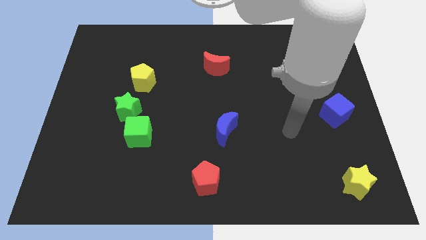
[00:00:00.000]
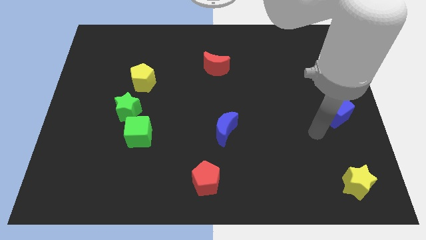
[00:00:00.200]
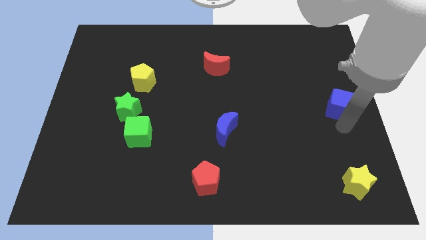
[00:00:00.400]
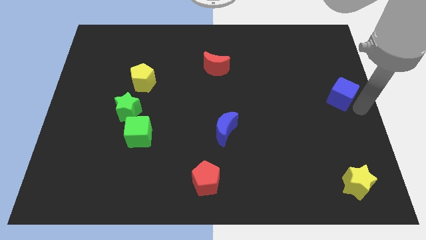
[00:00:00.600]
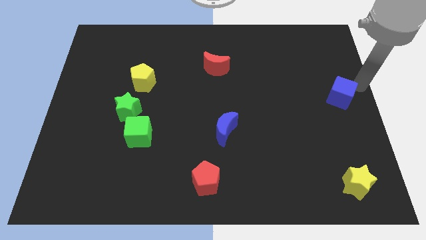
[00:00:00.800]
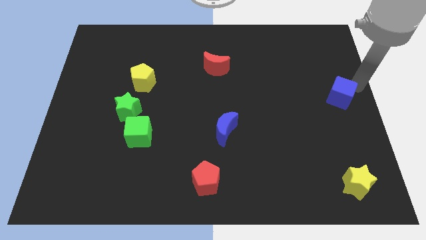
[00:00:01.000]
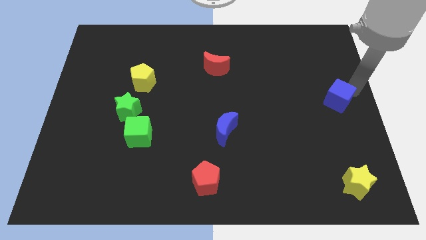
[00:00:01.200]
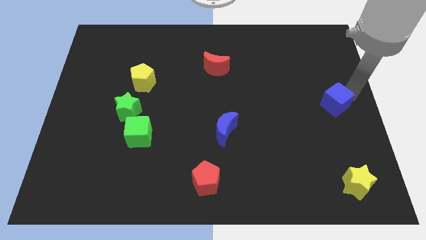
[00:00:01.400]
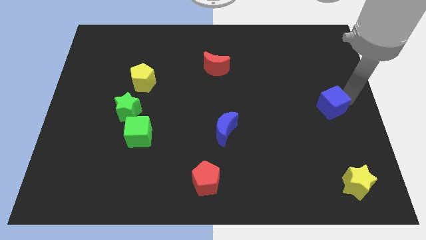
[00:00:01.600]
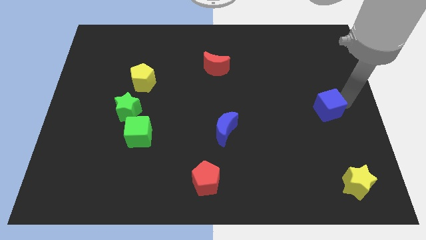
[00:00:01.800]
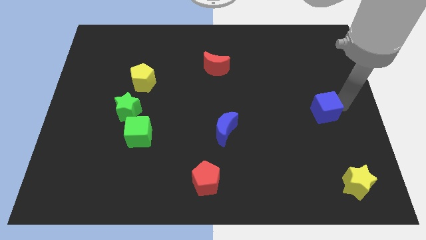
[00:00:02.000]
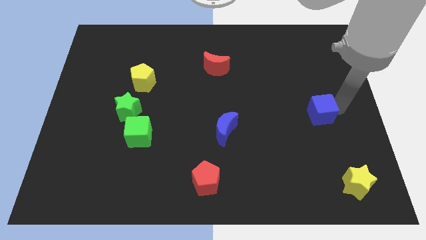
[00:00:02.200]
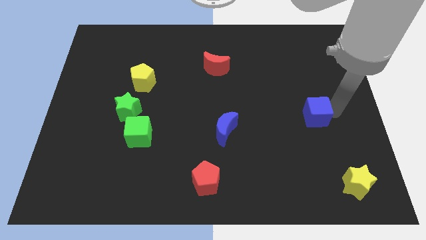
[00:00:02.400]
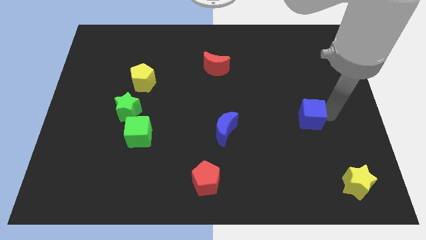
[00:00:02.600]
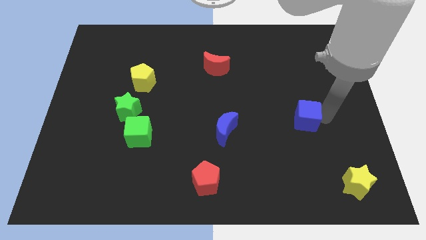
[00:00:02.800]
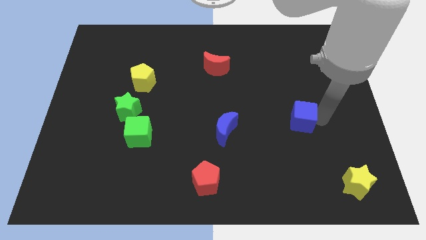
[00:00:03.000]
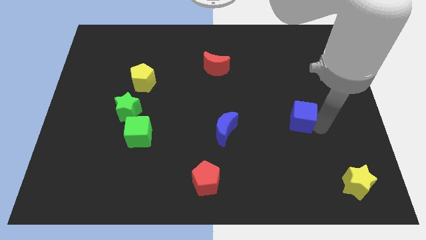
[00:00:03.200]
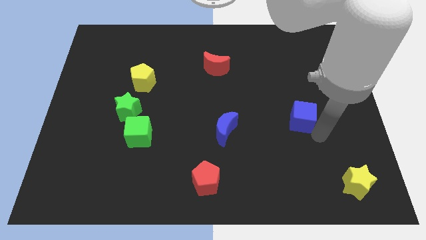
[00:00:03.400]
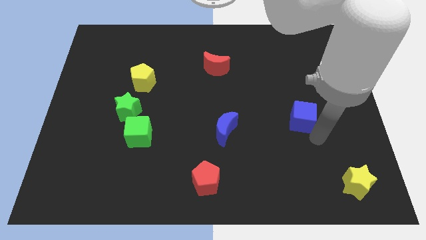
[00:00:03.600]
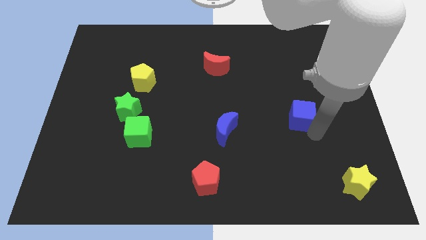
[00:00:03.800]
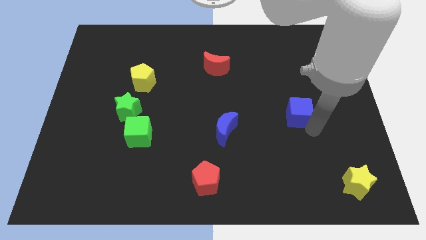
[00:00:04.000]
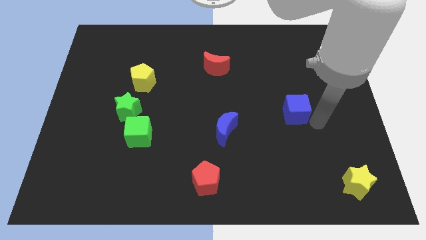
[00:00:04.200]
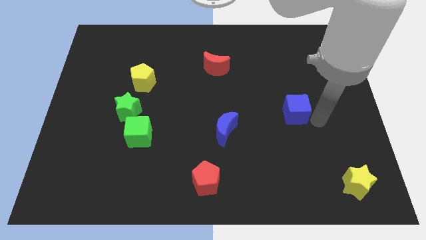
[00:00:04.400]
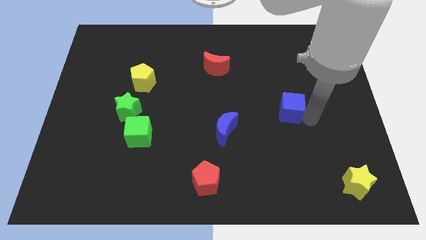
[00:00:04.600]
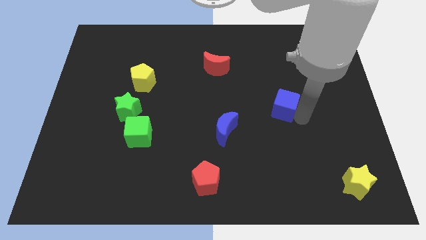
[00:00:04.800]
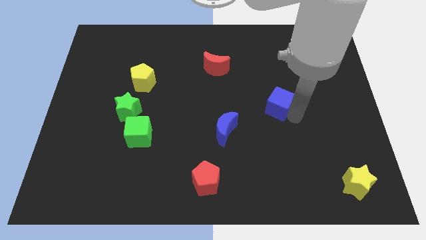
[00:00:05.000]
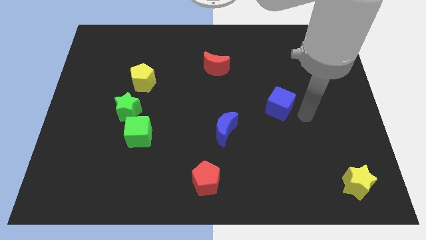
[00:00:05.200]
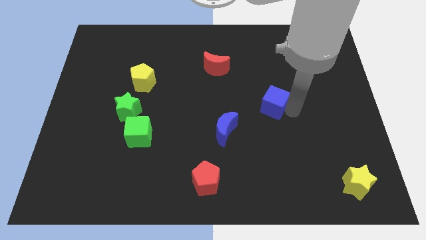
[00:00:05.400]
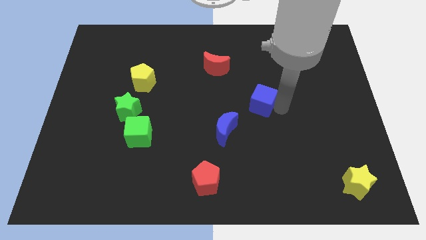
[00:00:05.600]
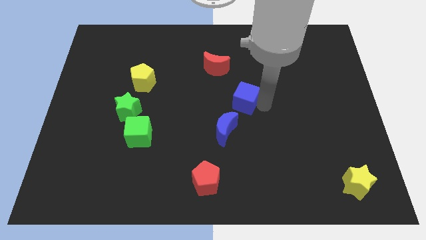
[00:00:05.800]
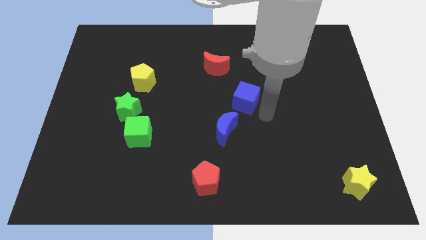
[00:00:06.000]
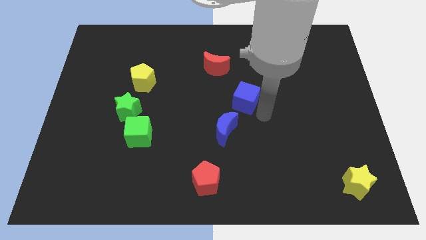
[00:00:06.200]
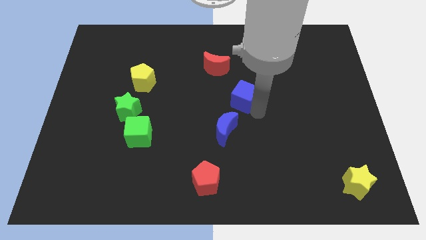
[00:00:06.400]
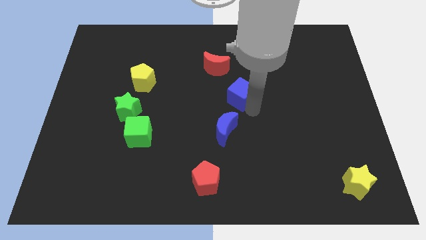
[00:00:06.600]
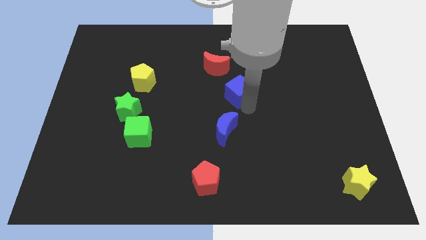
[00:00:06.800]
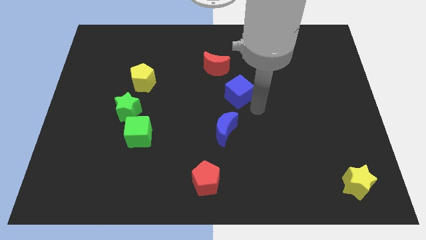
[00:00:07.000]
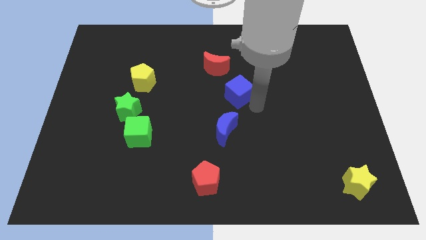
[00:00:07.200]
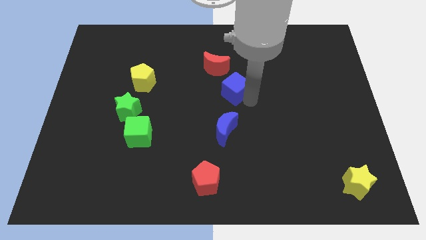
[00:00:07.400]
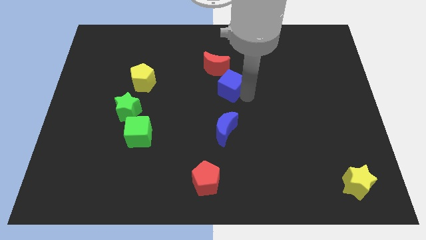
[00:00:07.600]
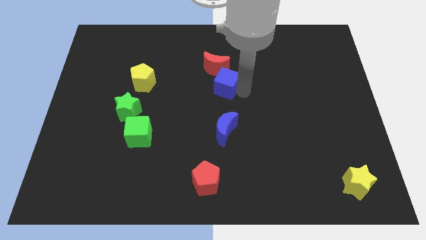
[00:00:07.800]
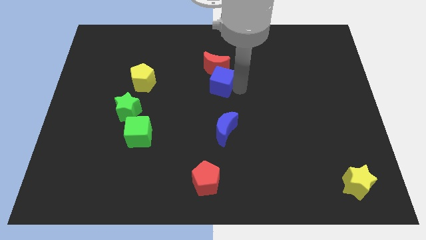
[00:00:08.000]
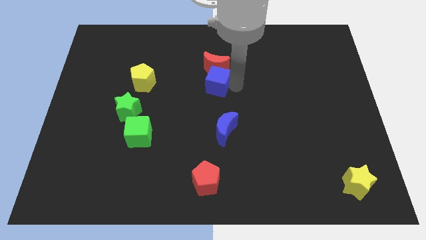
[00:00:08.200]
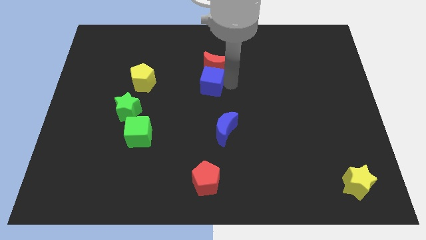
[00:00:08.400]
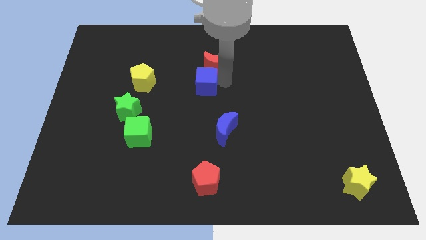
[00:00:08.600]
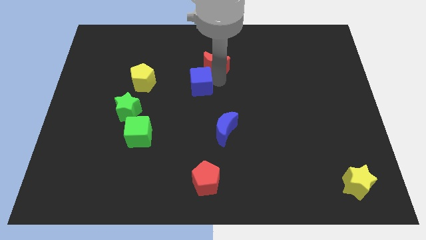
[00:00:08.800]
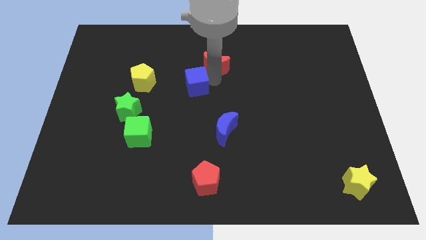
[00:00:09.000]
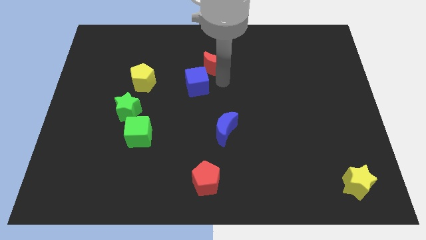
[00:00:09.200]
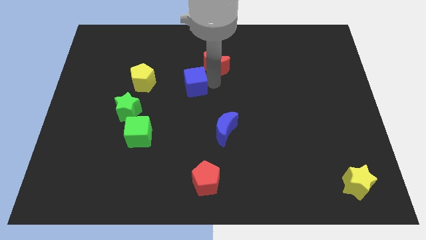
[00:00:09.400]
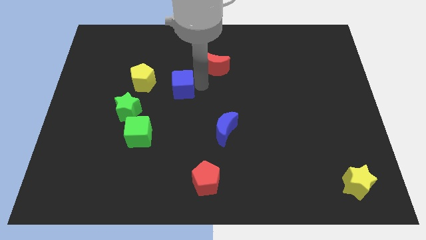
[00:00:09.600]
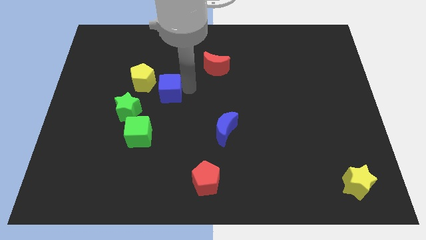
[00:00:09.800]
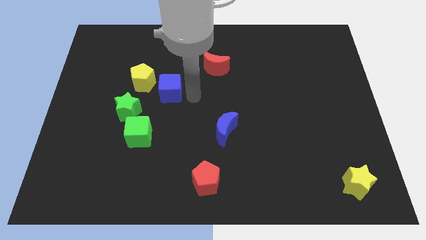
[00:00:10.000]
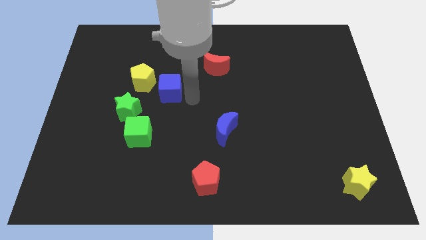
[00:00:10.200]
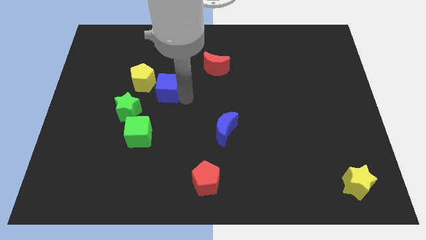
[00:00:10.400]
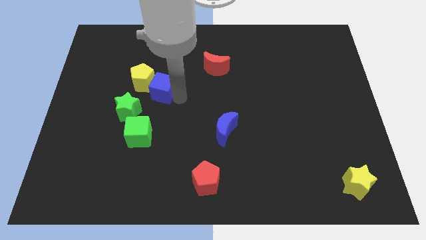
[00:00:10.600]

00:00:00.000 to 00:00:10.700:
put the blue cube to the yellow pentagon

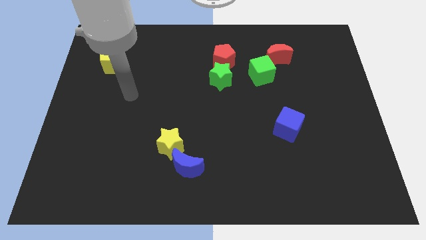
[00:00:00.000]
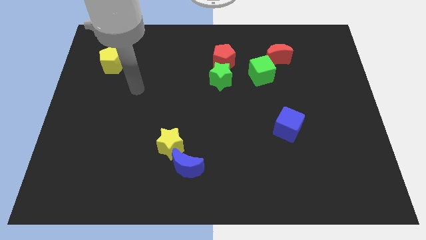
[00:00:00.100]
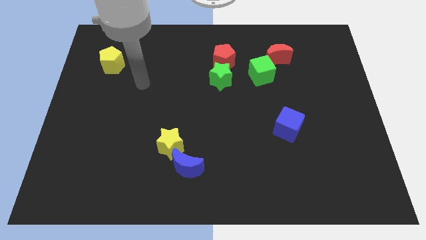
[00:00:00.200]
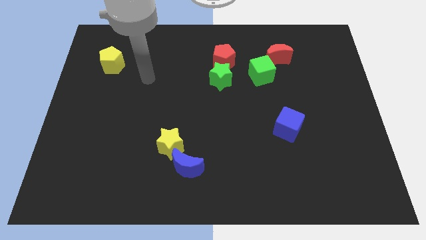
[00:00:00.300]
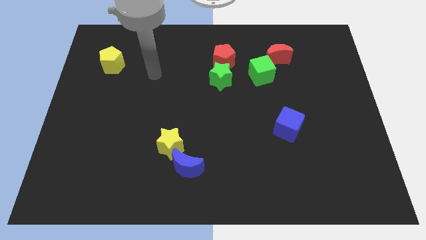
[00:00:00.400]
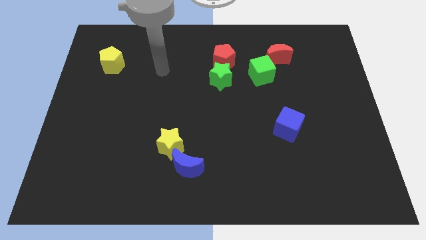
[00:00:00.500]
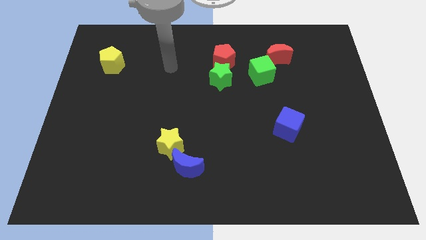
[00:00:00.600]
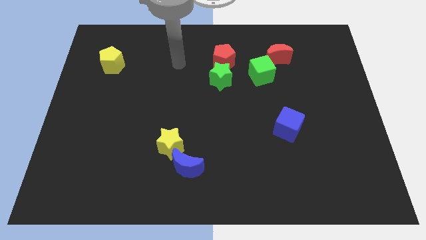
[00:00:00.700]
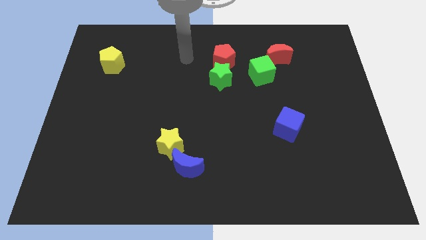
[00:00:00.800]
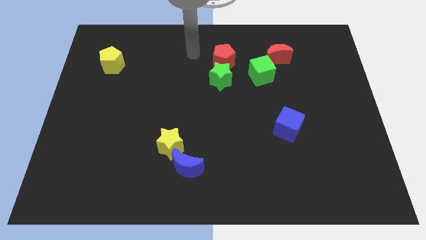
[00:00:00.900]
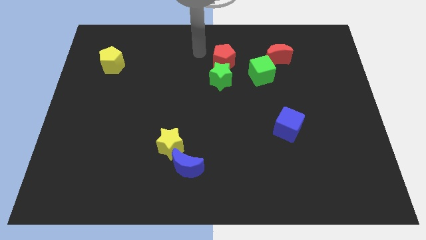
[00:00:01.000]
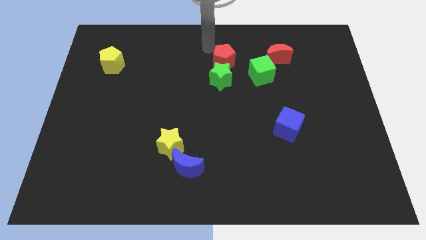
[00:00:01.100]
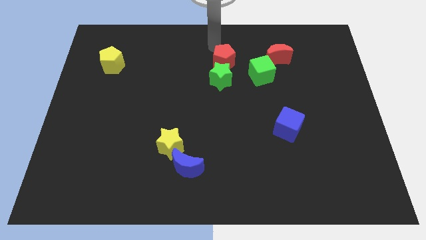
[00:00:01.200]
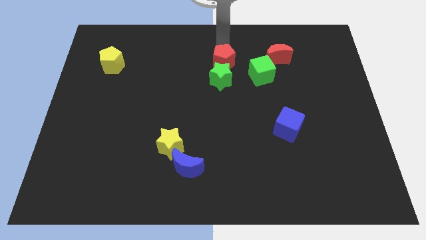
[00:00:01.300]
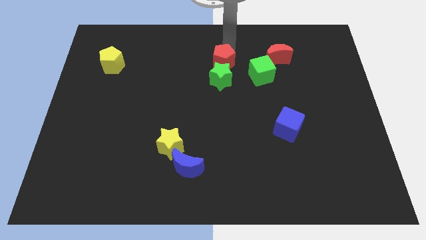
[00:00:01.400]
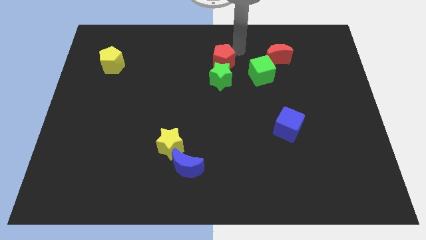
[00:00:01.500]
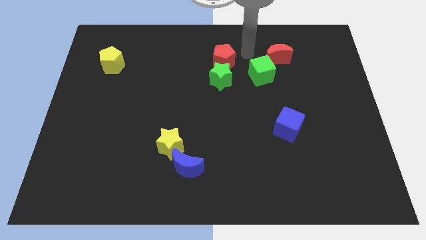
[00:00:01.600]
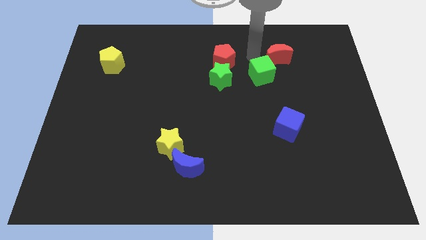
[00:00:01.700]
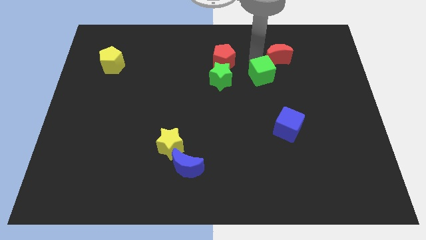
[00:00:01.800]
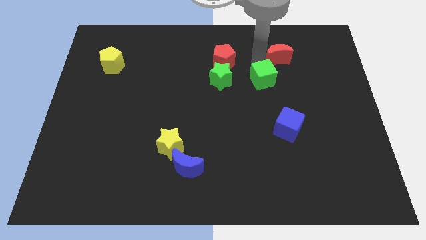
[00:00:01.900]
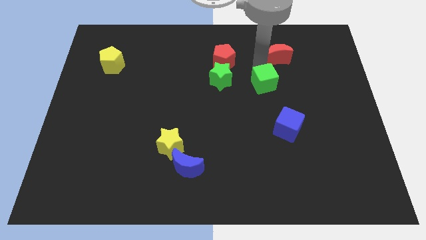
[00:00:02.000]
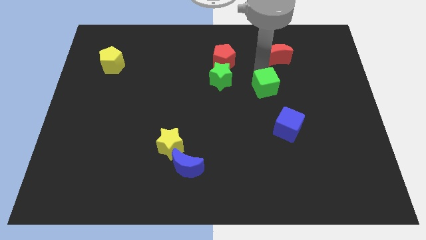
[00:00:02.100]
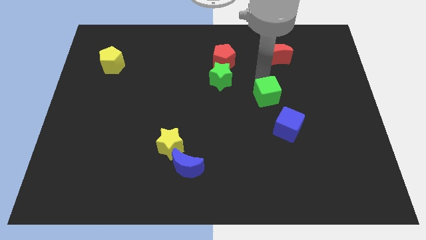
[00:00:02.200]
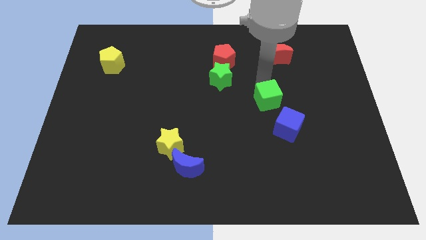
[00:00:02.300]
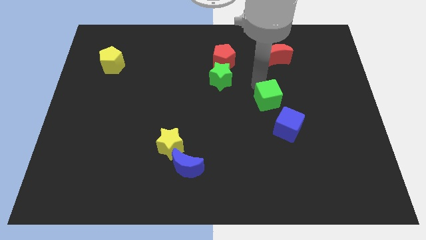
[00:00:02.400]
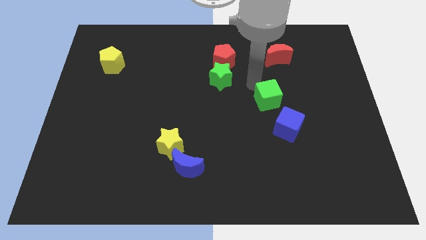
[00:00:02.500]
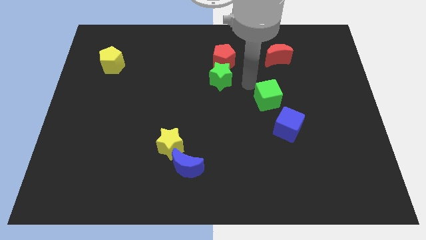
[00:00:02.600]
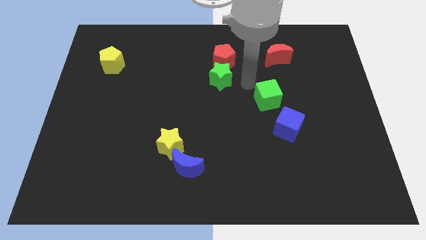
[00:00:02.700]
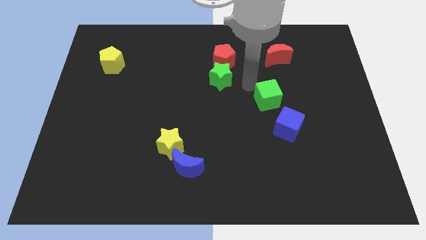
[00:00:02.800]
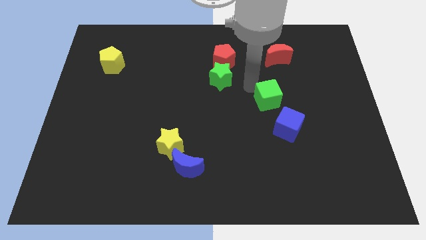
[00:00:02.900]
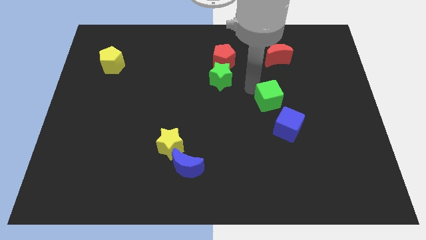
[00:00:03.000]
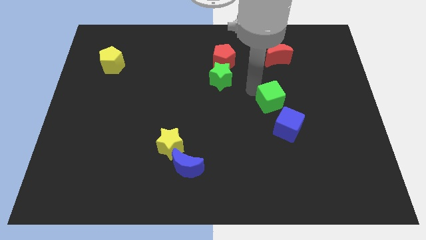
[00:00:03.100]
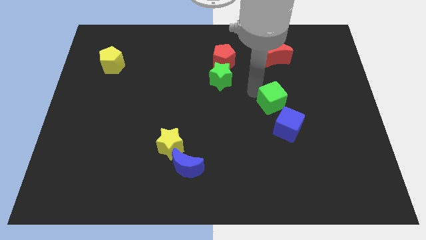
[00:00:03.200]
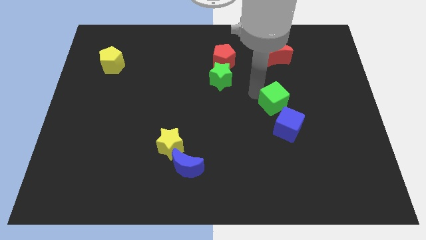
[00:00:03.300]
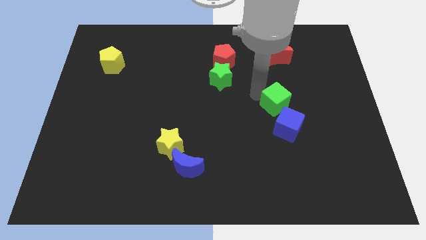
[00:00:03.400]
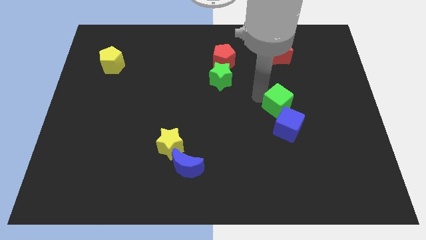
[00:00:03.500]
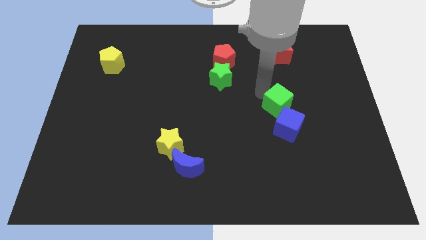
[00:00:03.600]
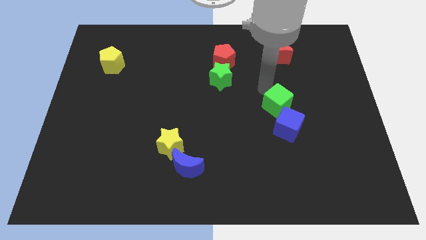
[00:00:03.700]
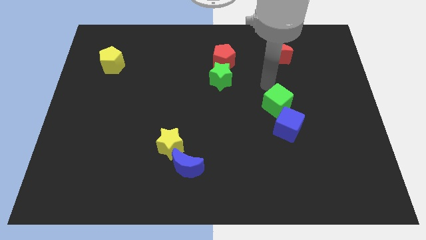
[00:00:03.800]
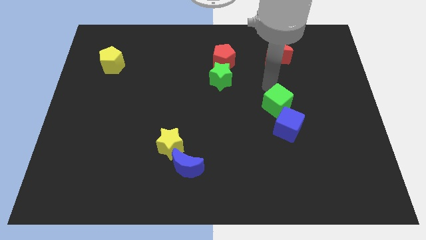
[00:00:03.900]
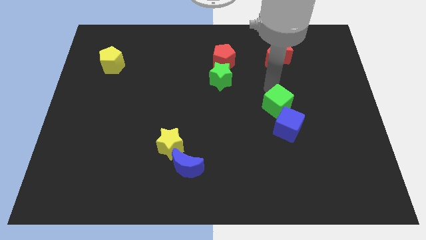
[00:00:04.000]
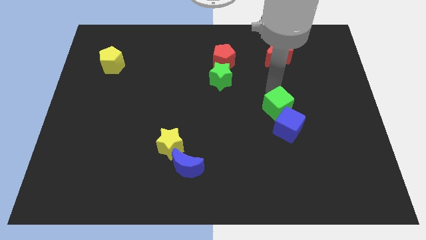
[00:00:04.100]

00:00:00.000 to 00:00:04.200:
slide the green cube to the blue cube
